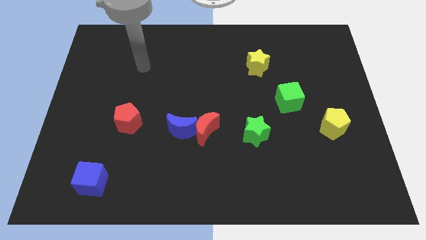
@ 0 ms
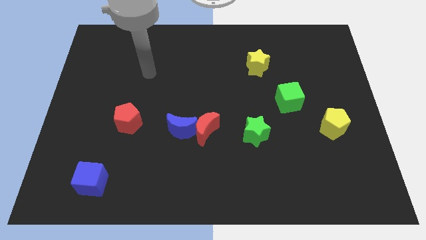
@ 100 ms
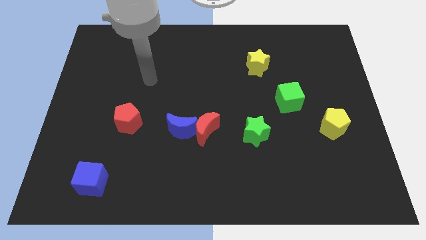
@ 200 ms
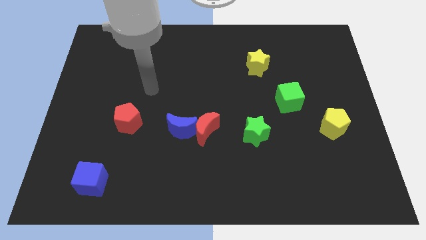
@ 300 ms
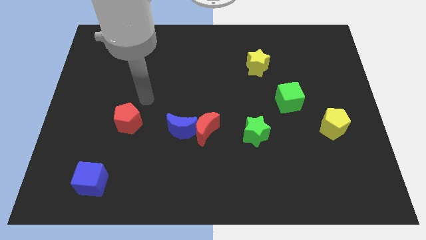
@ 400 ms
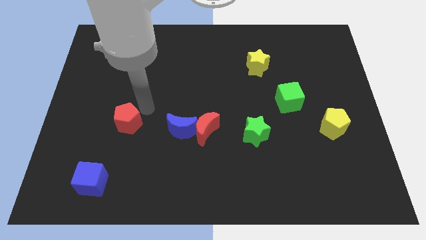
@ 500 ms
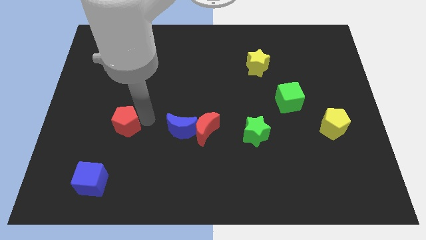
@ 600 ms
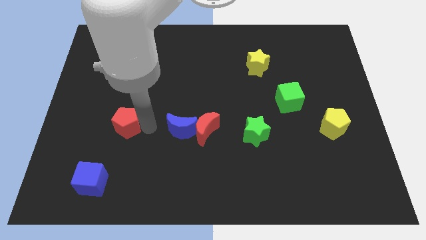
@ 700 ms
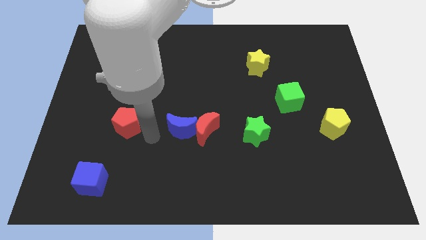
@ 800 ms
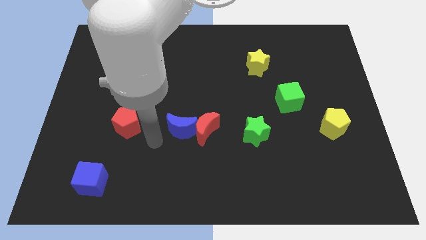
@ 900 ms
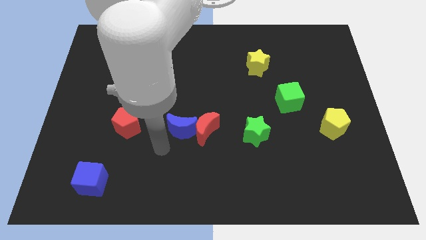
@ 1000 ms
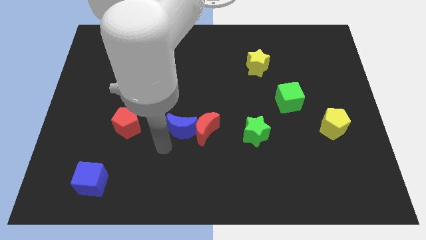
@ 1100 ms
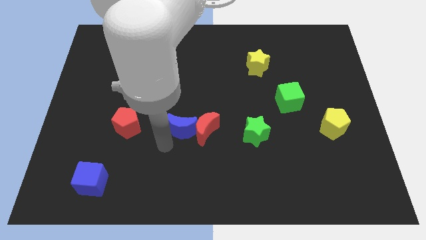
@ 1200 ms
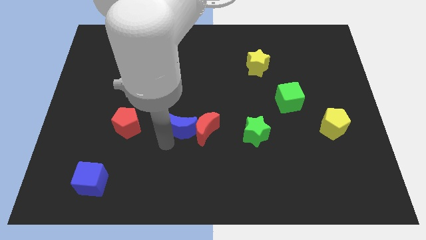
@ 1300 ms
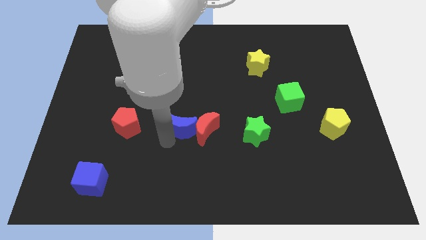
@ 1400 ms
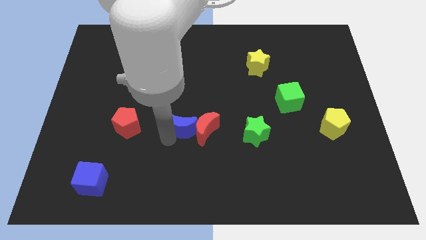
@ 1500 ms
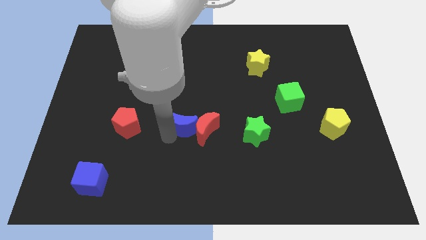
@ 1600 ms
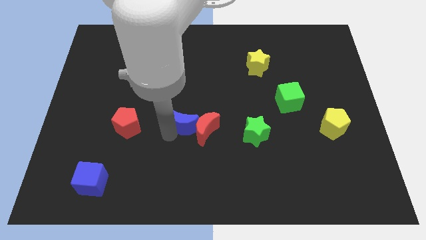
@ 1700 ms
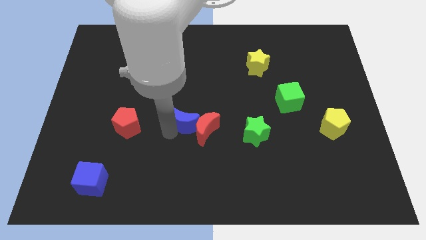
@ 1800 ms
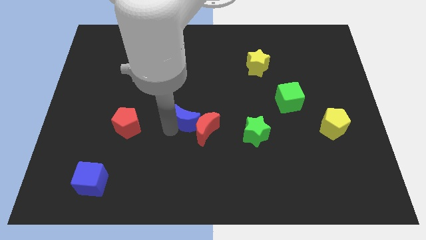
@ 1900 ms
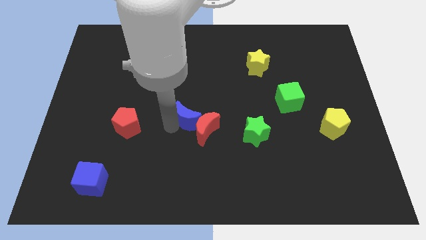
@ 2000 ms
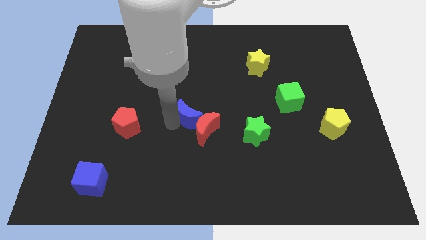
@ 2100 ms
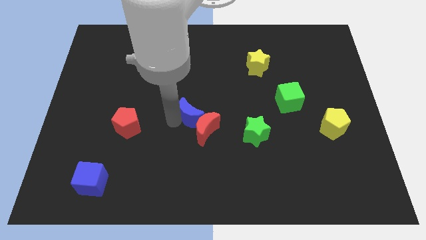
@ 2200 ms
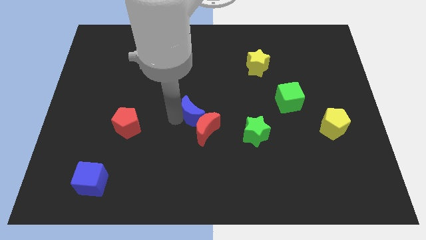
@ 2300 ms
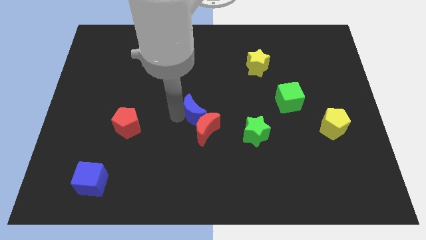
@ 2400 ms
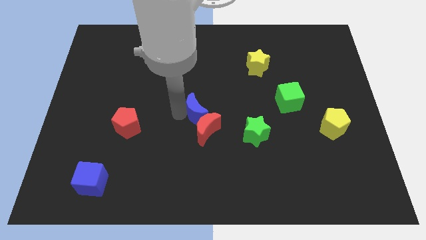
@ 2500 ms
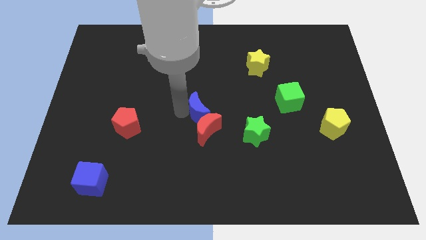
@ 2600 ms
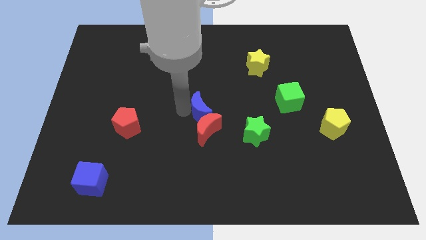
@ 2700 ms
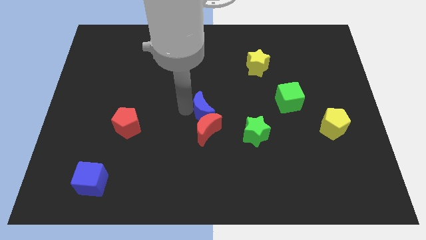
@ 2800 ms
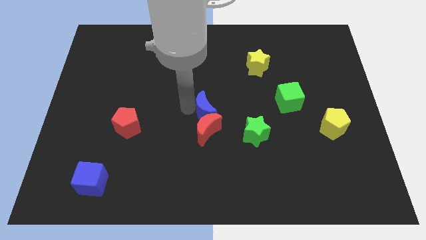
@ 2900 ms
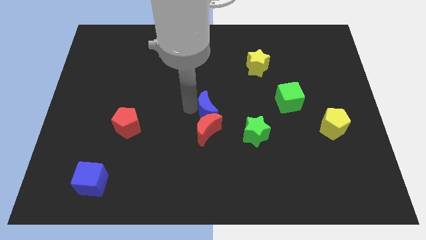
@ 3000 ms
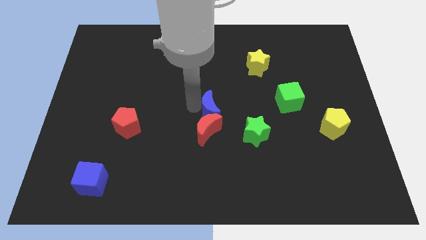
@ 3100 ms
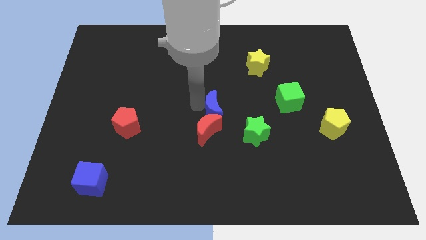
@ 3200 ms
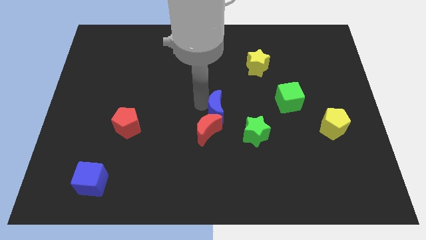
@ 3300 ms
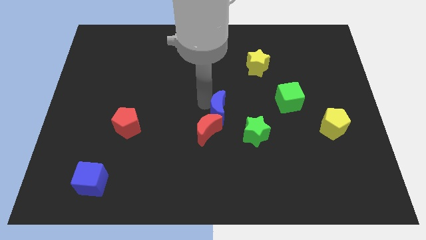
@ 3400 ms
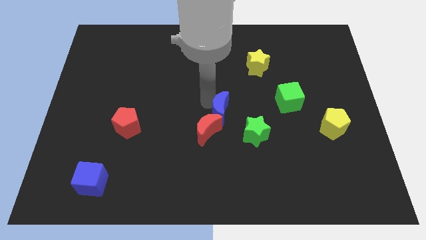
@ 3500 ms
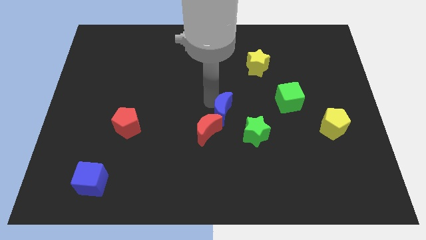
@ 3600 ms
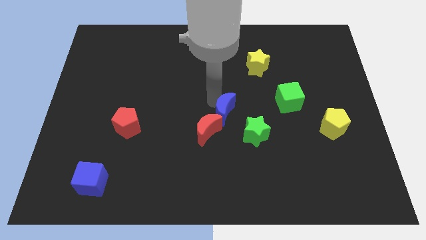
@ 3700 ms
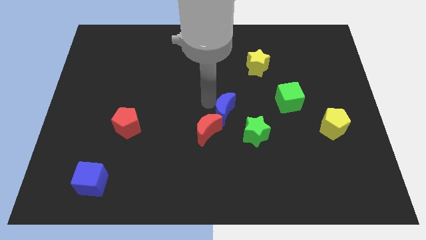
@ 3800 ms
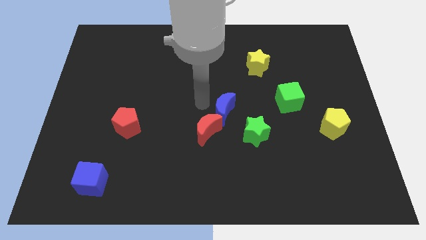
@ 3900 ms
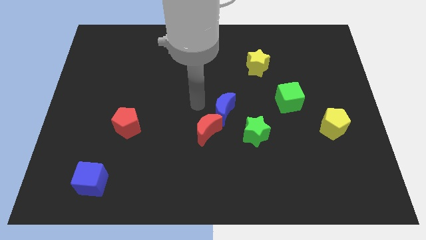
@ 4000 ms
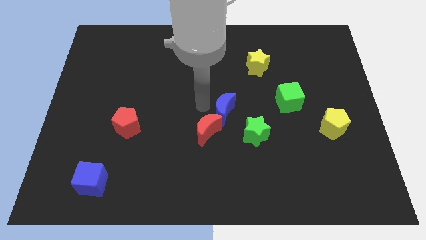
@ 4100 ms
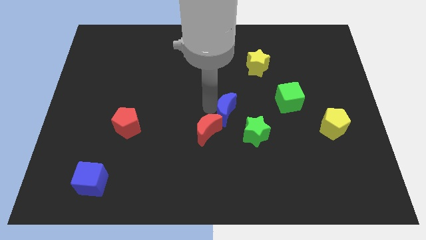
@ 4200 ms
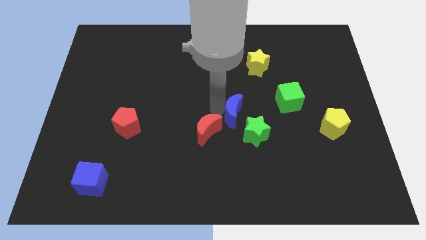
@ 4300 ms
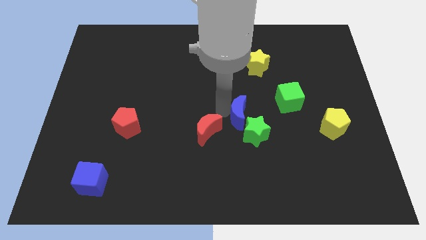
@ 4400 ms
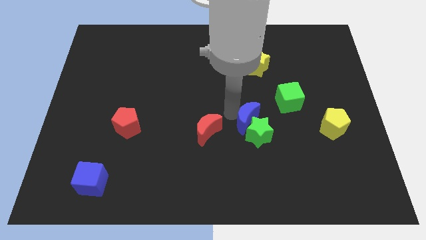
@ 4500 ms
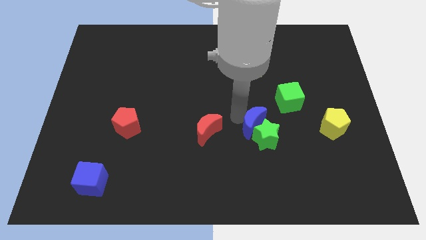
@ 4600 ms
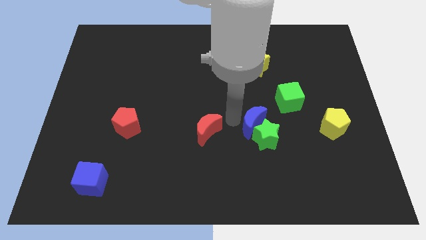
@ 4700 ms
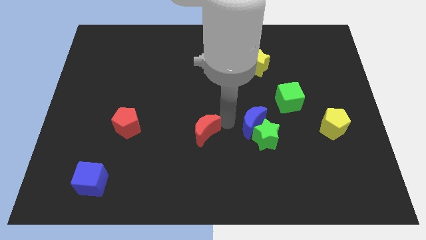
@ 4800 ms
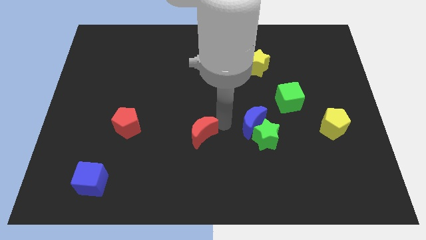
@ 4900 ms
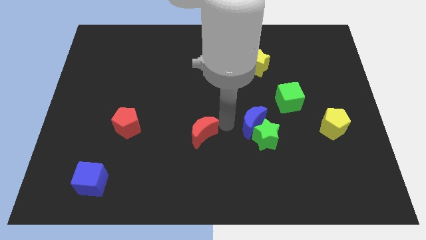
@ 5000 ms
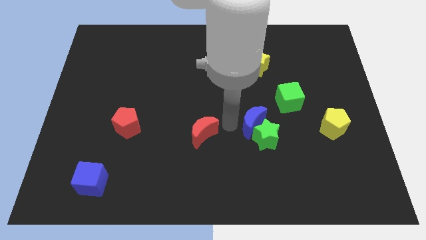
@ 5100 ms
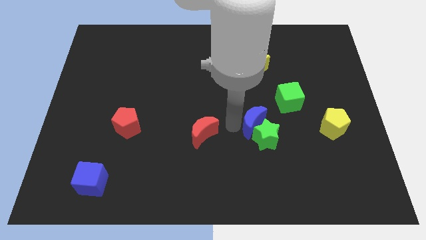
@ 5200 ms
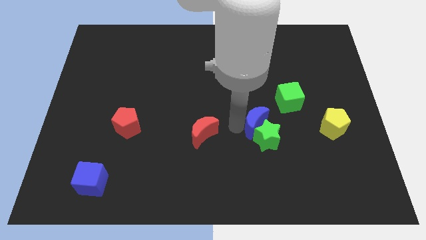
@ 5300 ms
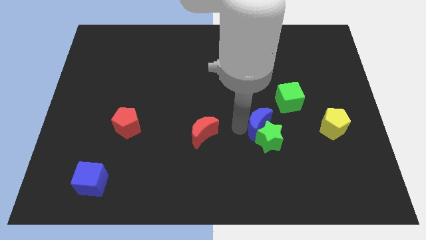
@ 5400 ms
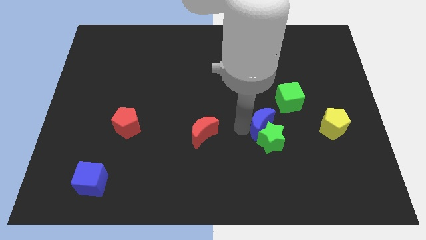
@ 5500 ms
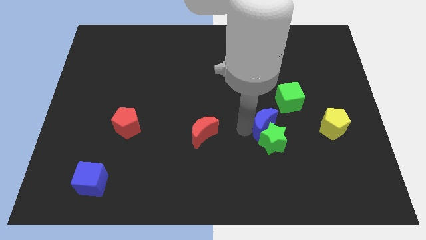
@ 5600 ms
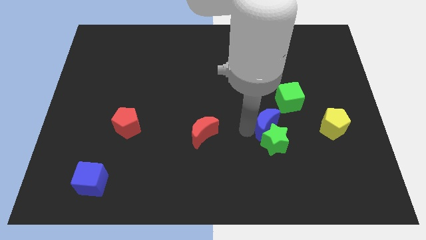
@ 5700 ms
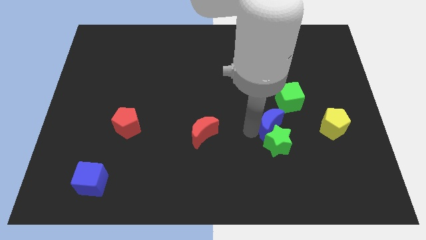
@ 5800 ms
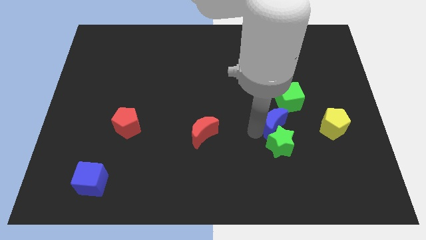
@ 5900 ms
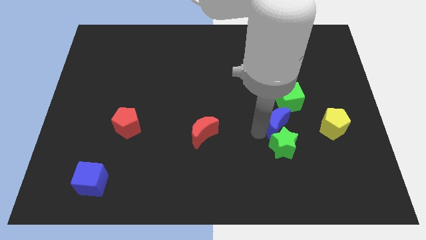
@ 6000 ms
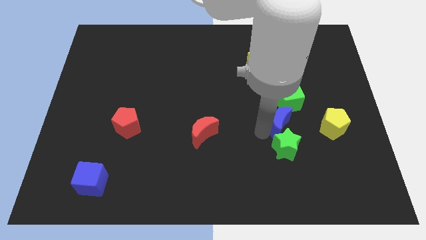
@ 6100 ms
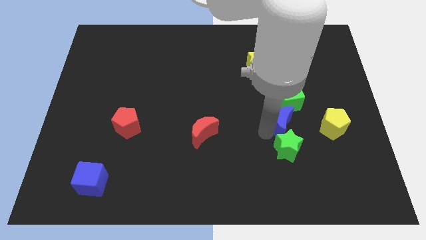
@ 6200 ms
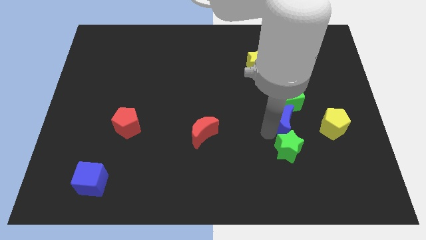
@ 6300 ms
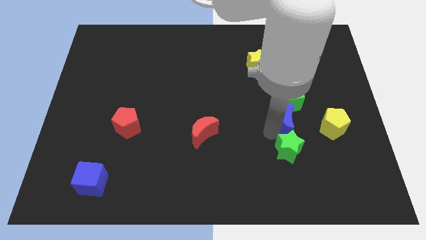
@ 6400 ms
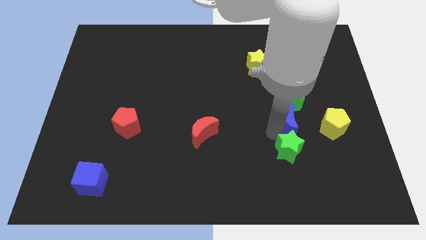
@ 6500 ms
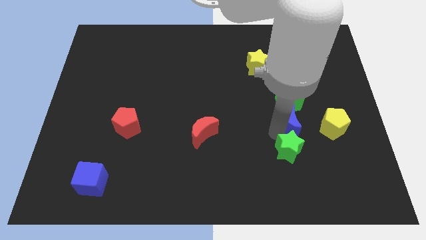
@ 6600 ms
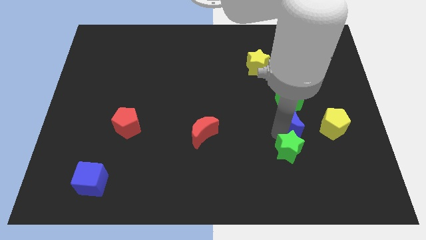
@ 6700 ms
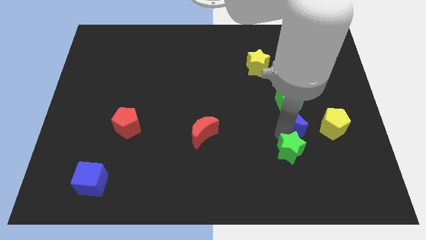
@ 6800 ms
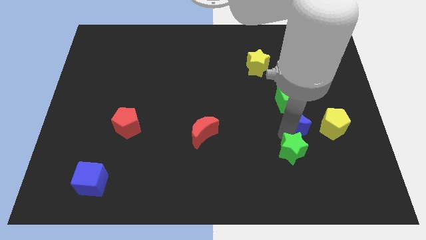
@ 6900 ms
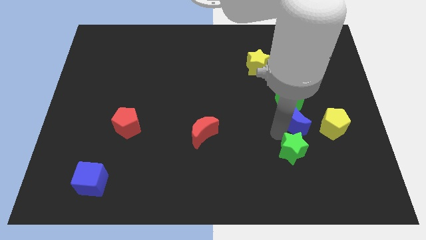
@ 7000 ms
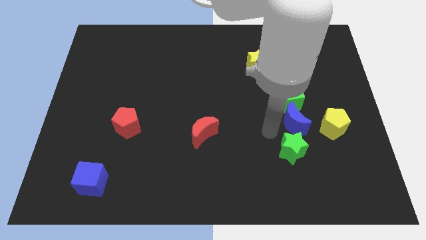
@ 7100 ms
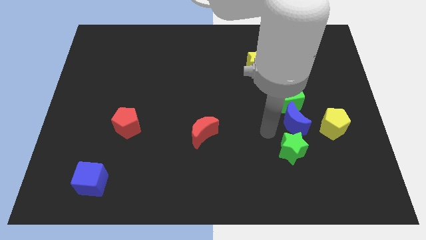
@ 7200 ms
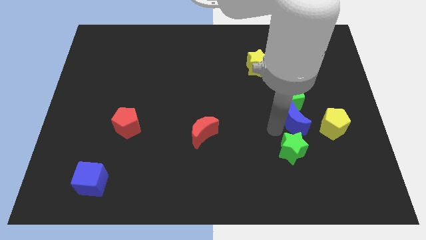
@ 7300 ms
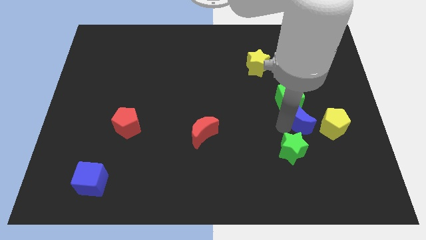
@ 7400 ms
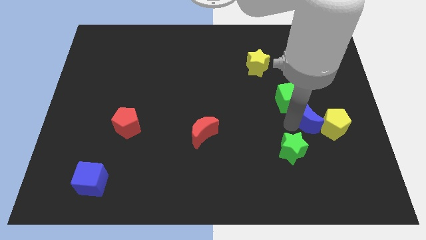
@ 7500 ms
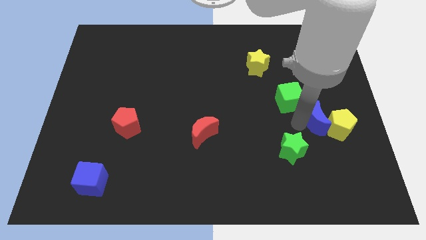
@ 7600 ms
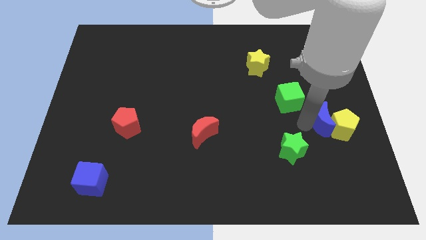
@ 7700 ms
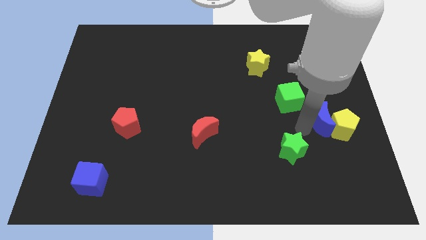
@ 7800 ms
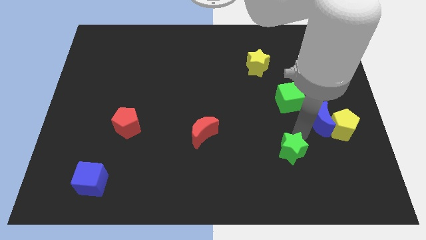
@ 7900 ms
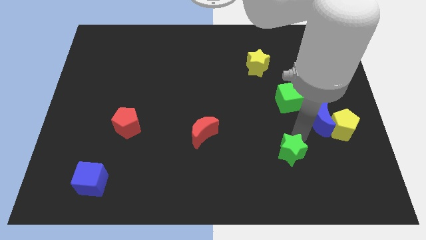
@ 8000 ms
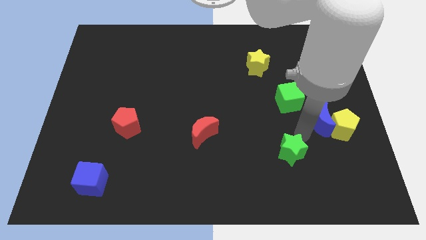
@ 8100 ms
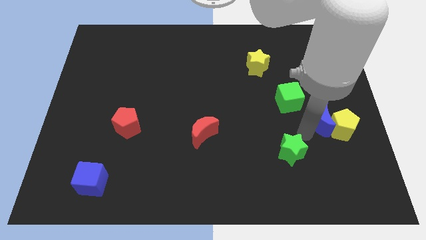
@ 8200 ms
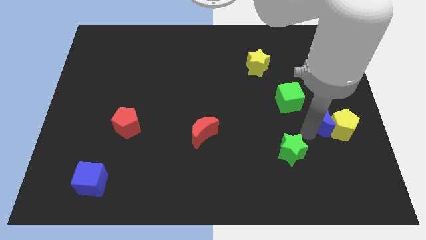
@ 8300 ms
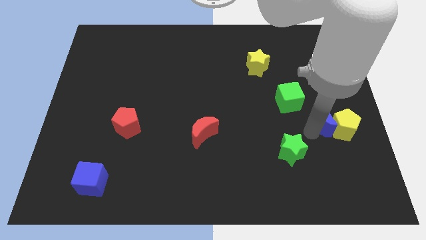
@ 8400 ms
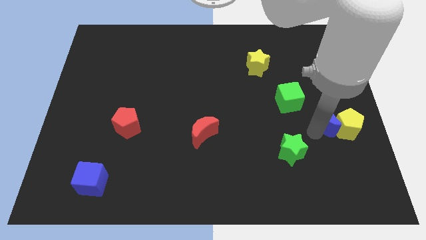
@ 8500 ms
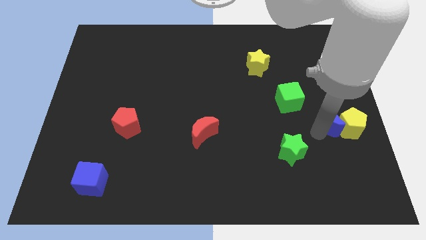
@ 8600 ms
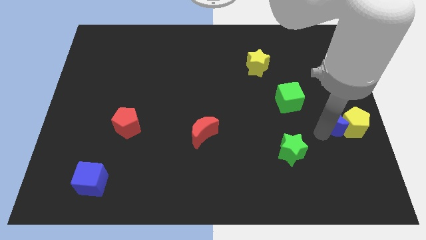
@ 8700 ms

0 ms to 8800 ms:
move the blue moon to the right side of the board
